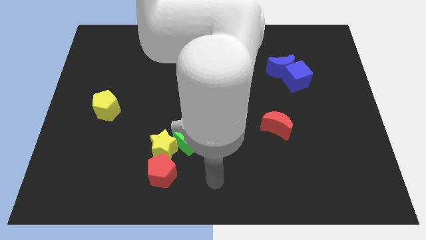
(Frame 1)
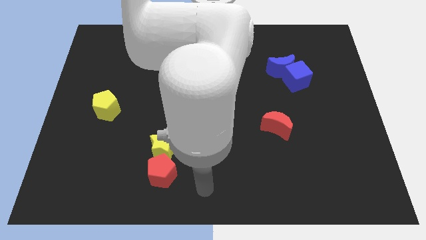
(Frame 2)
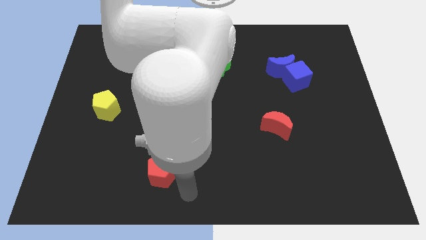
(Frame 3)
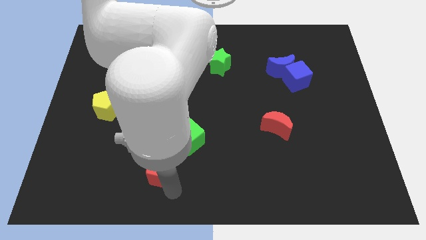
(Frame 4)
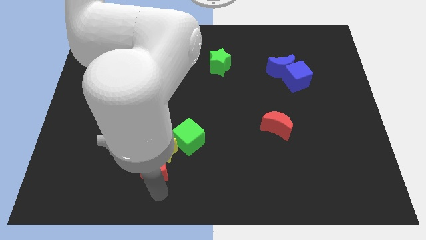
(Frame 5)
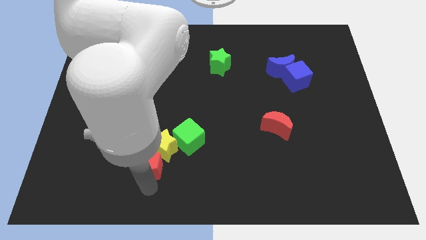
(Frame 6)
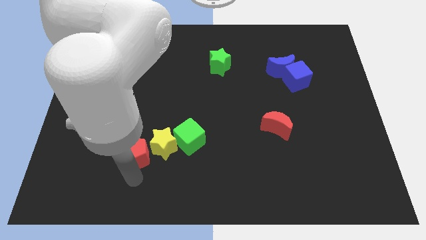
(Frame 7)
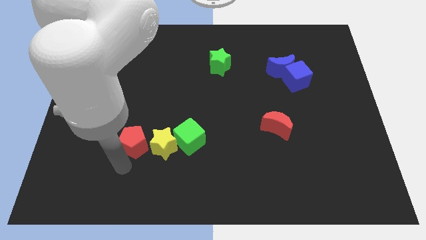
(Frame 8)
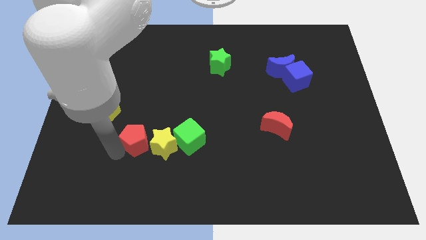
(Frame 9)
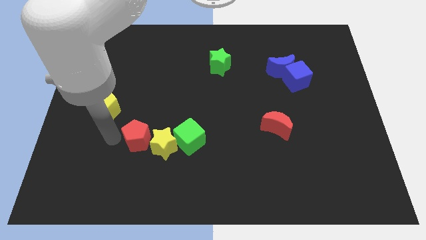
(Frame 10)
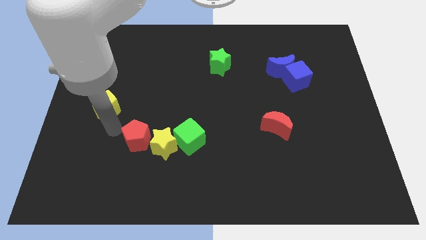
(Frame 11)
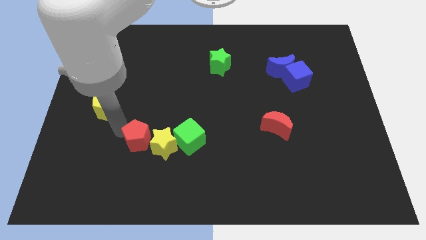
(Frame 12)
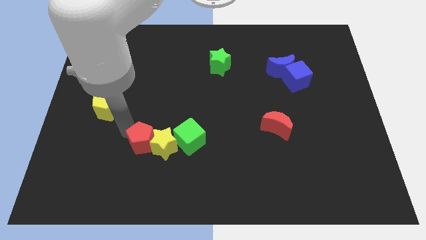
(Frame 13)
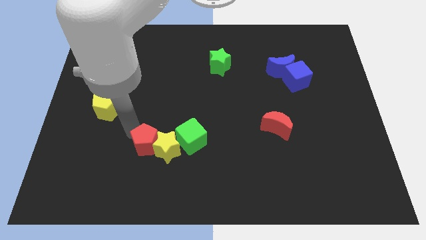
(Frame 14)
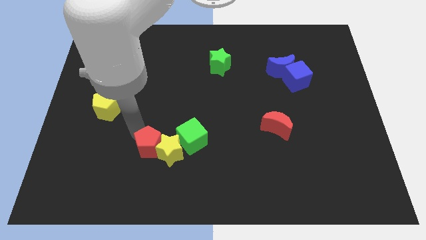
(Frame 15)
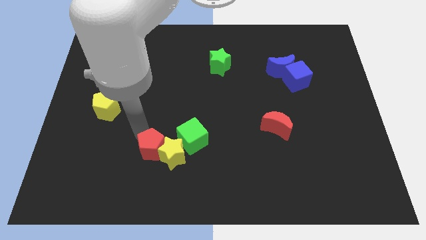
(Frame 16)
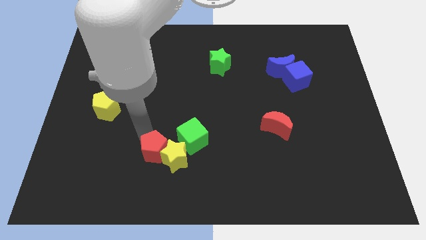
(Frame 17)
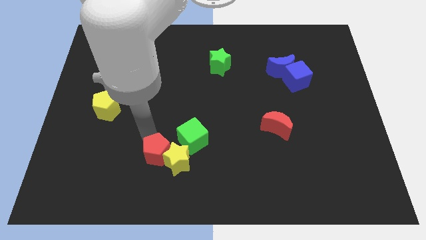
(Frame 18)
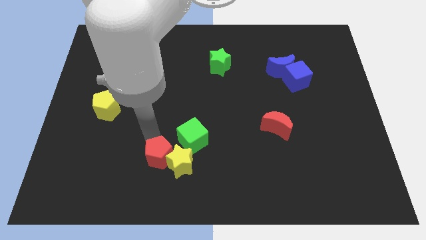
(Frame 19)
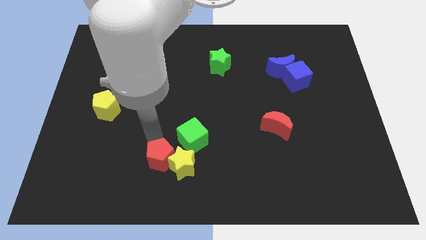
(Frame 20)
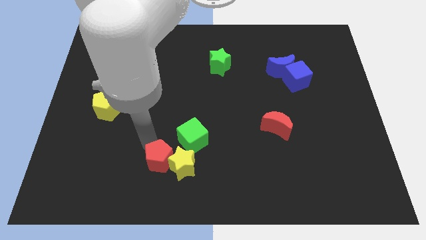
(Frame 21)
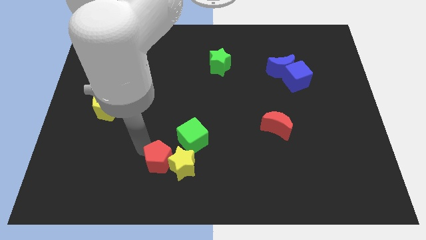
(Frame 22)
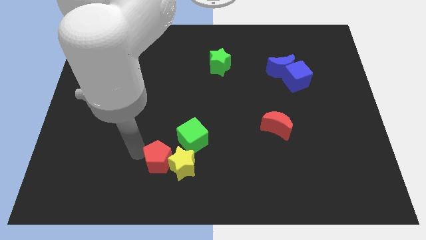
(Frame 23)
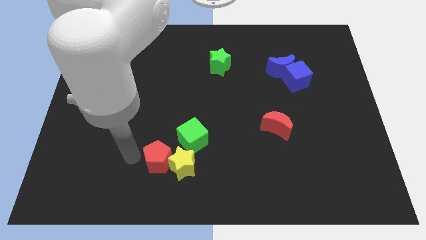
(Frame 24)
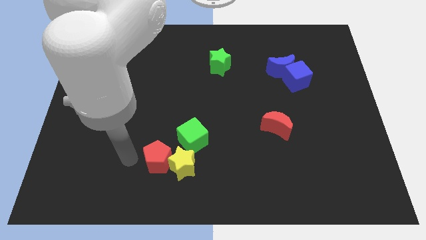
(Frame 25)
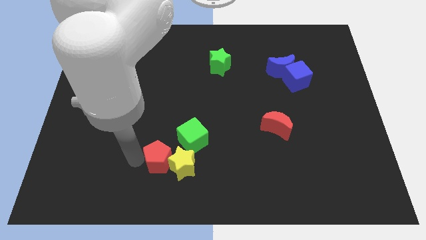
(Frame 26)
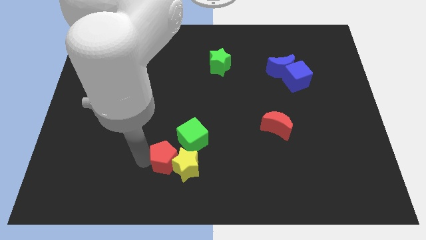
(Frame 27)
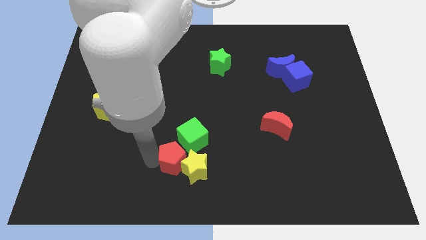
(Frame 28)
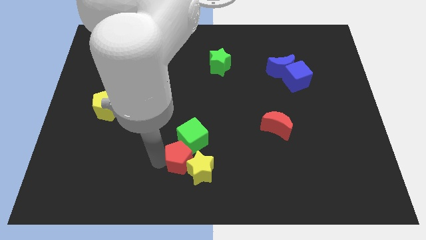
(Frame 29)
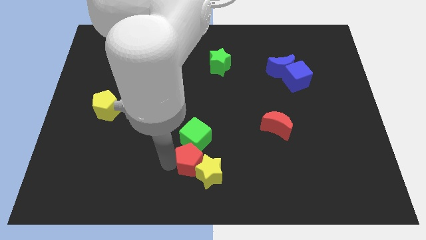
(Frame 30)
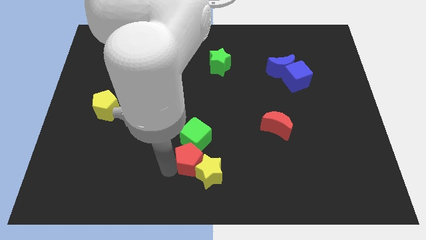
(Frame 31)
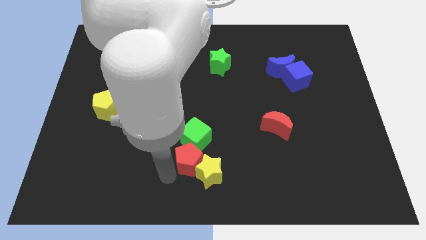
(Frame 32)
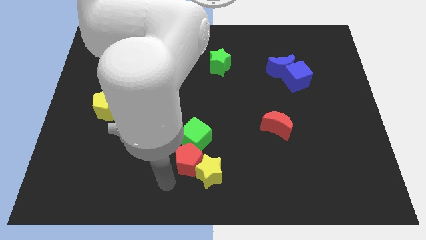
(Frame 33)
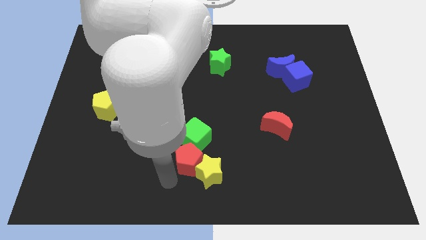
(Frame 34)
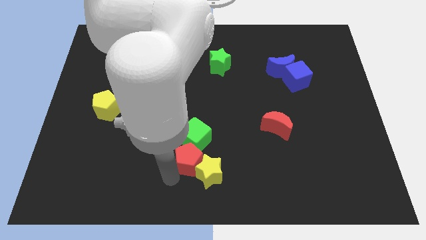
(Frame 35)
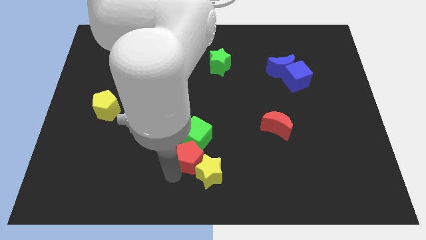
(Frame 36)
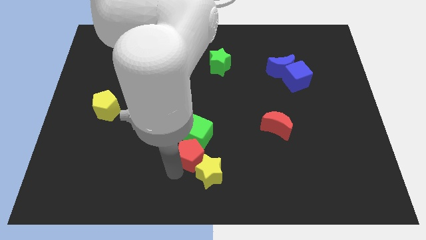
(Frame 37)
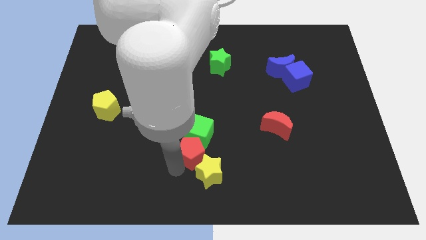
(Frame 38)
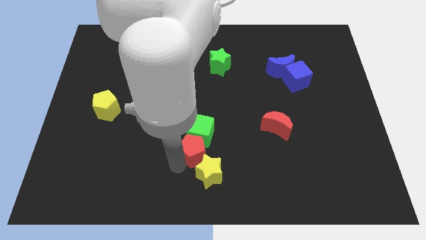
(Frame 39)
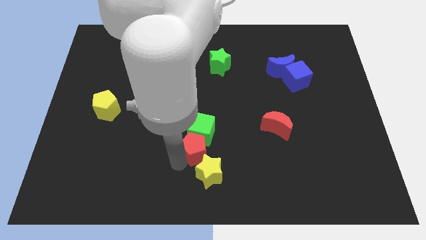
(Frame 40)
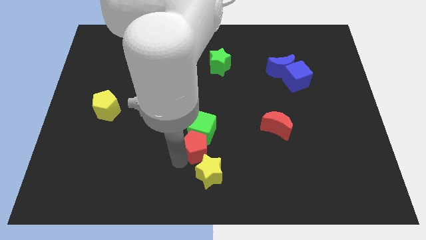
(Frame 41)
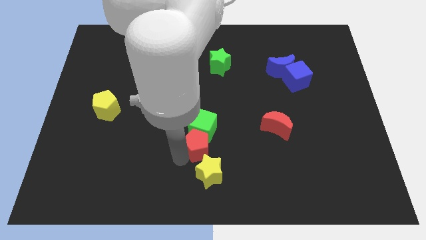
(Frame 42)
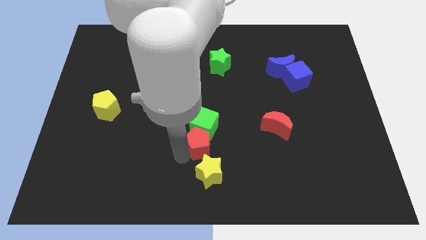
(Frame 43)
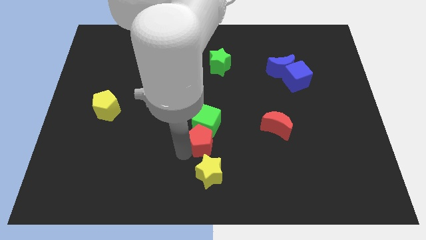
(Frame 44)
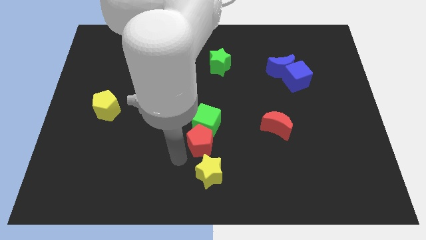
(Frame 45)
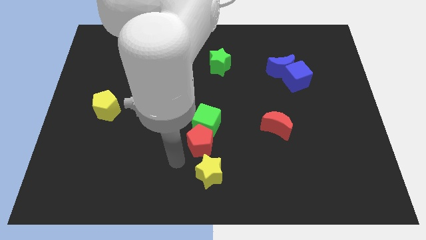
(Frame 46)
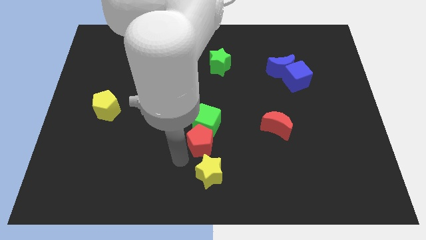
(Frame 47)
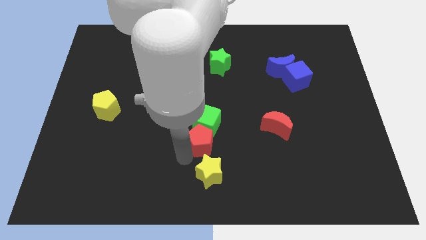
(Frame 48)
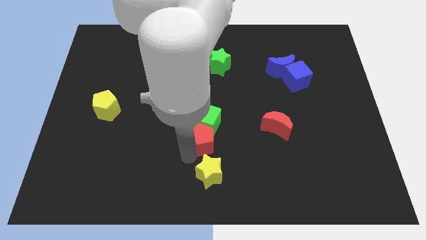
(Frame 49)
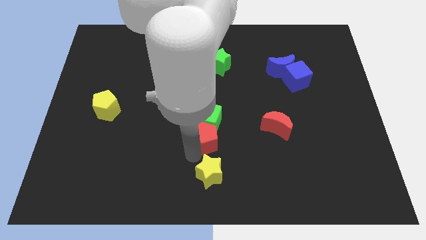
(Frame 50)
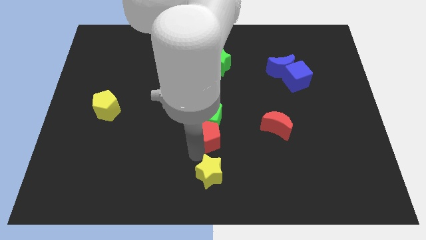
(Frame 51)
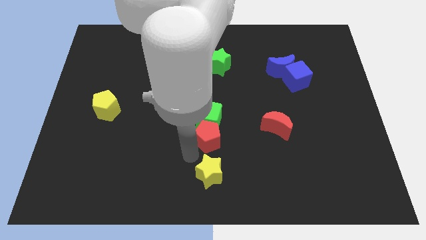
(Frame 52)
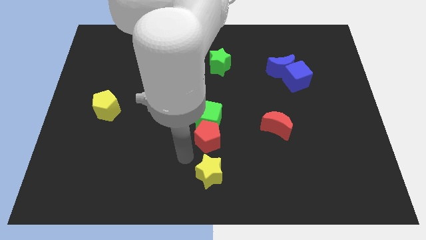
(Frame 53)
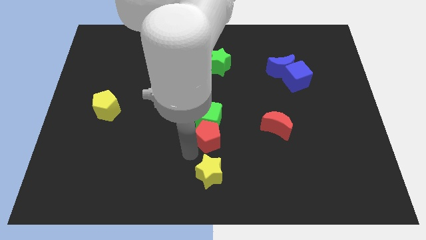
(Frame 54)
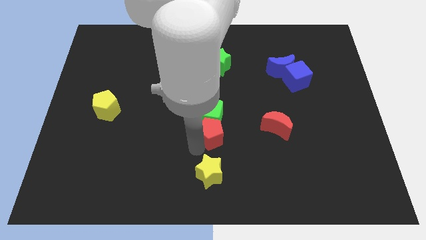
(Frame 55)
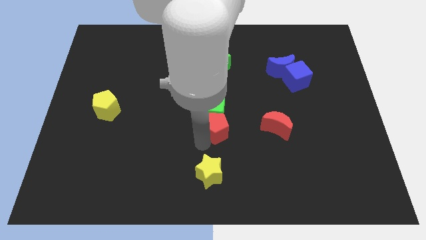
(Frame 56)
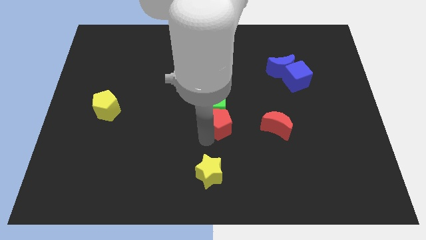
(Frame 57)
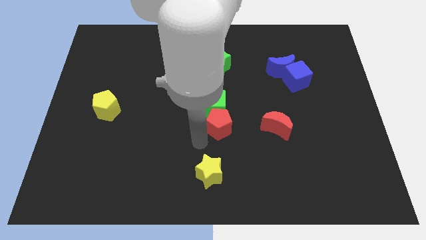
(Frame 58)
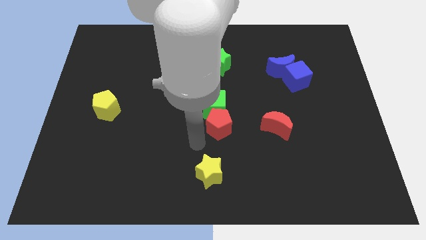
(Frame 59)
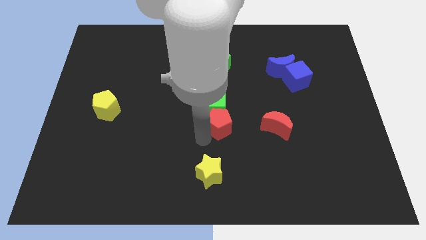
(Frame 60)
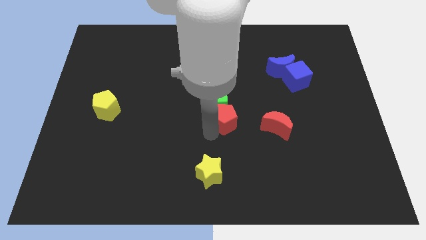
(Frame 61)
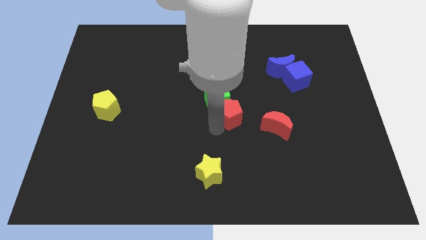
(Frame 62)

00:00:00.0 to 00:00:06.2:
push the red pentagon upwards and then right

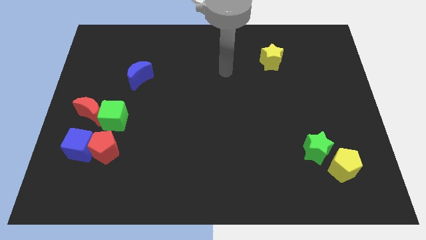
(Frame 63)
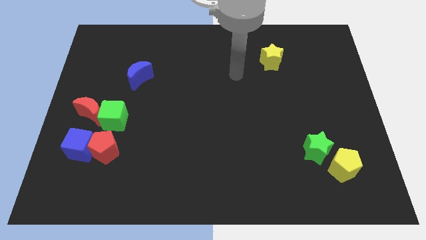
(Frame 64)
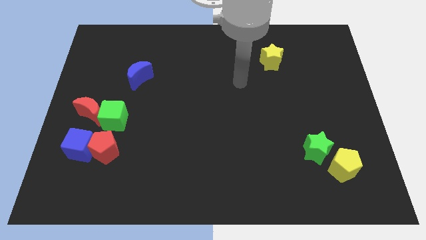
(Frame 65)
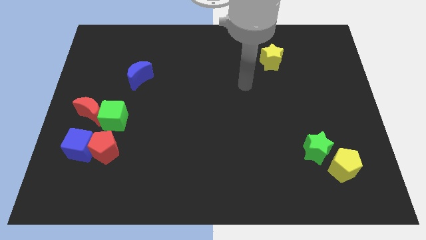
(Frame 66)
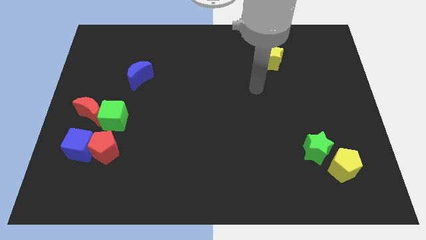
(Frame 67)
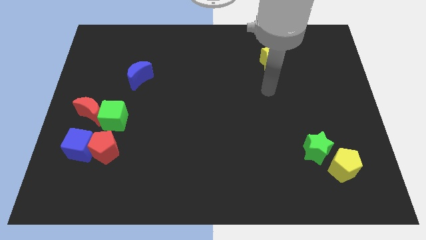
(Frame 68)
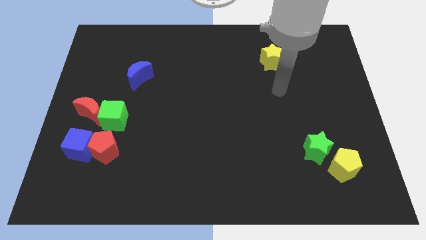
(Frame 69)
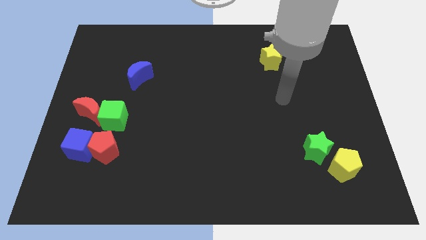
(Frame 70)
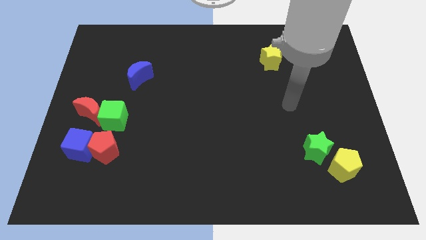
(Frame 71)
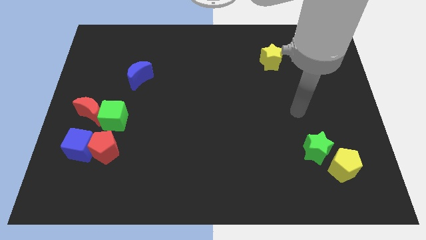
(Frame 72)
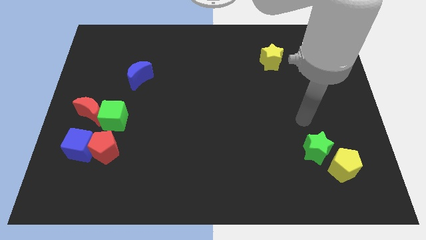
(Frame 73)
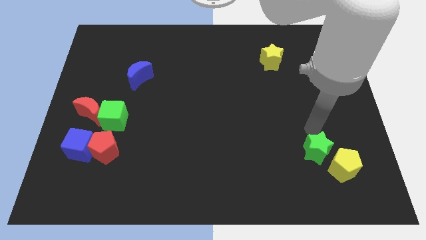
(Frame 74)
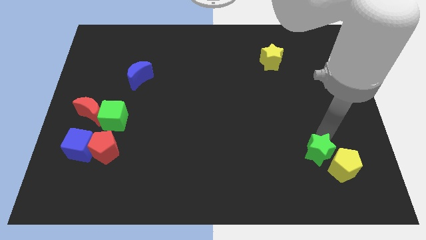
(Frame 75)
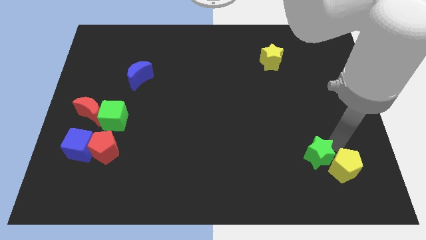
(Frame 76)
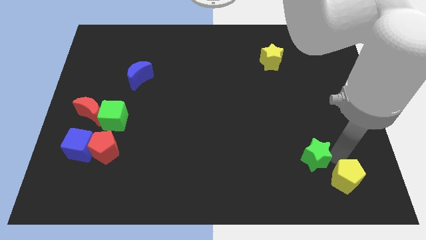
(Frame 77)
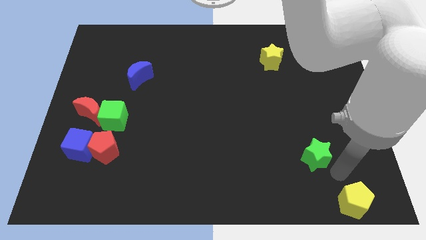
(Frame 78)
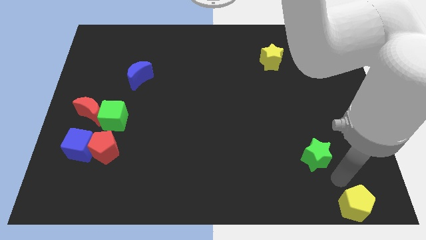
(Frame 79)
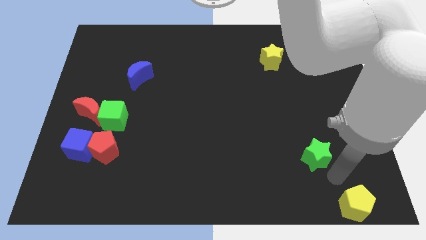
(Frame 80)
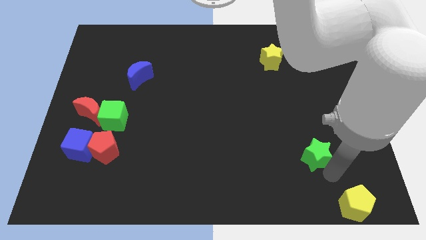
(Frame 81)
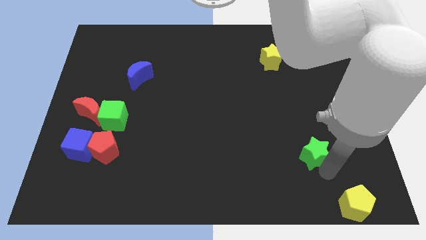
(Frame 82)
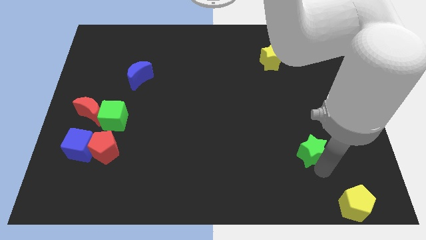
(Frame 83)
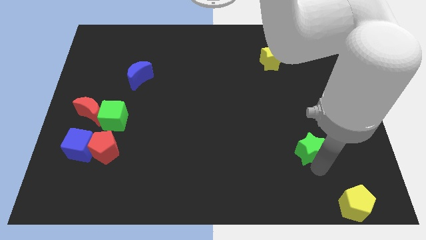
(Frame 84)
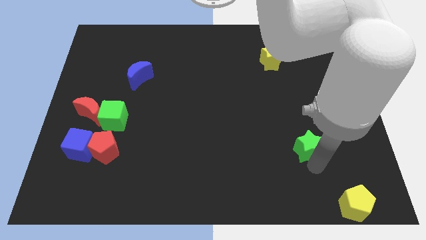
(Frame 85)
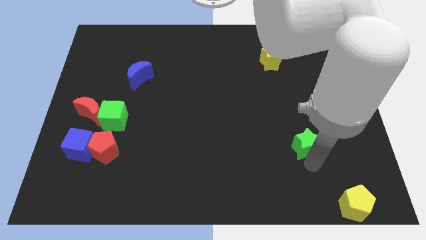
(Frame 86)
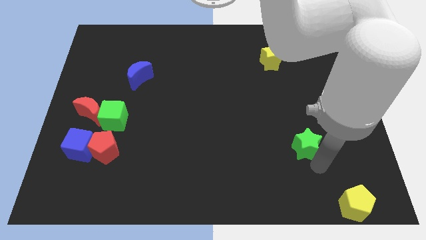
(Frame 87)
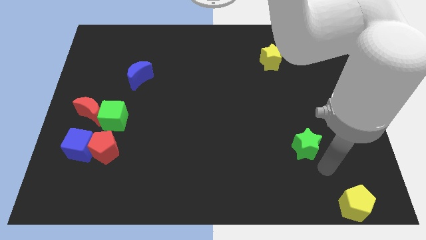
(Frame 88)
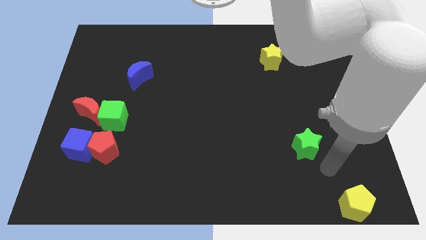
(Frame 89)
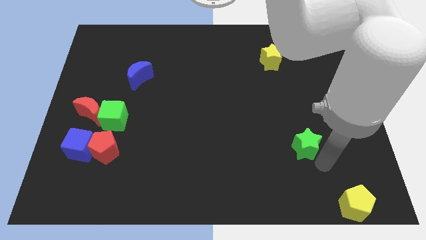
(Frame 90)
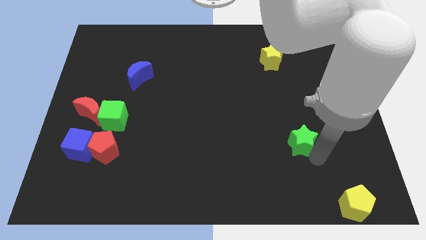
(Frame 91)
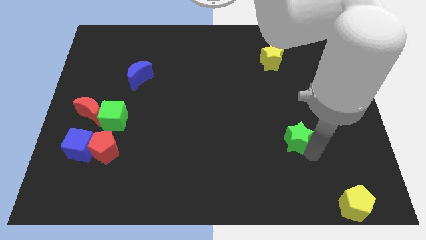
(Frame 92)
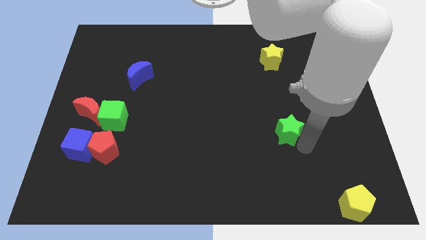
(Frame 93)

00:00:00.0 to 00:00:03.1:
push the green star a little bit up and then to the left
